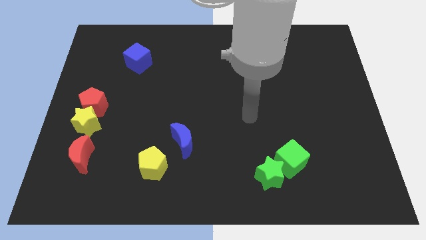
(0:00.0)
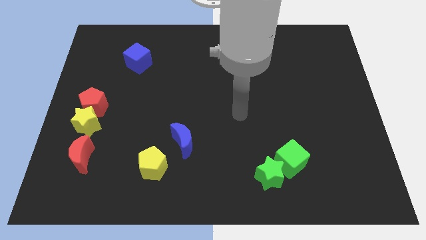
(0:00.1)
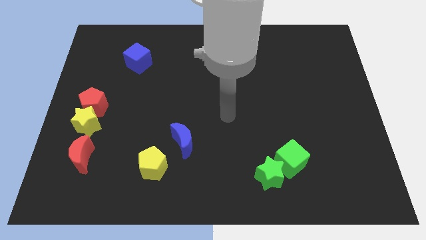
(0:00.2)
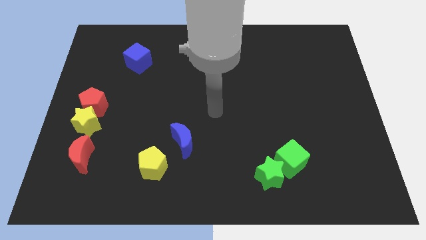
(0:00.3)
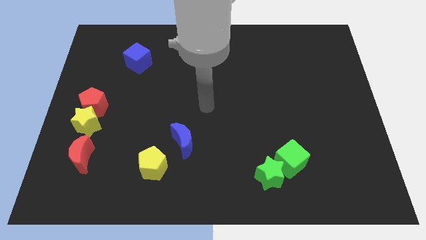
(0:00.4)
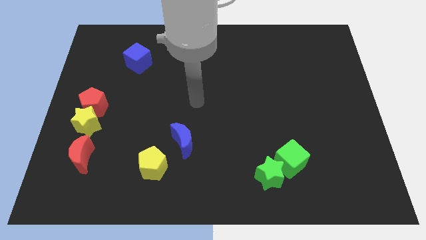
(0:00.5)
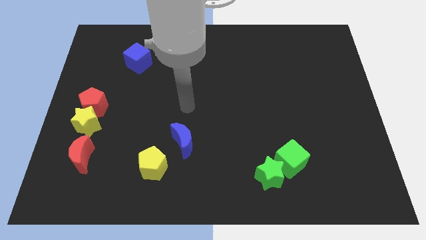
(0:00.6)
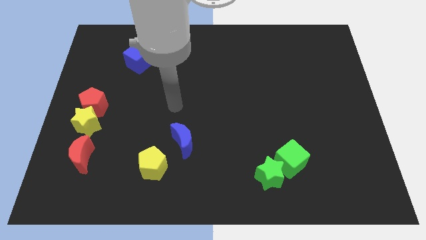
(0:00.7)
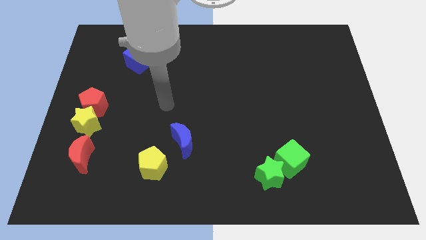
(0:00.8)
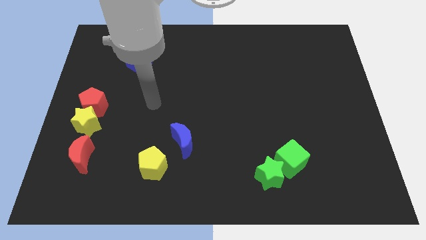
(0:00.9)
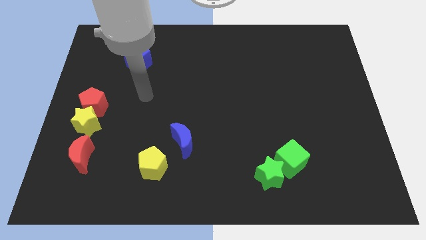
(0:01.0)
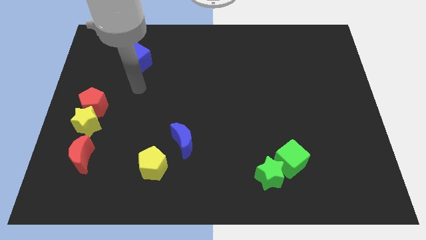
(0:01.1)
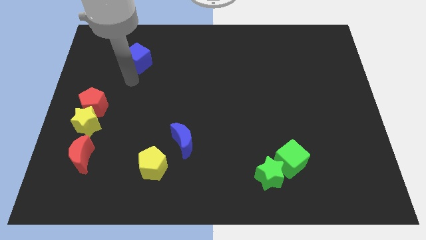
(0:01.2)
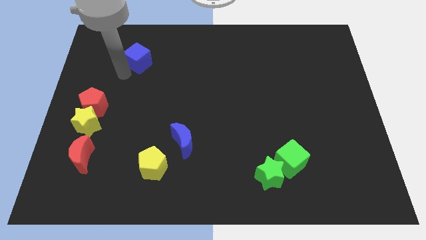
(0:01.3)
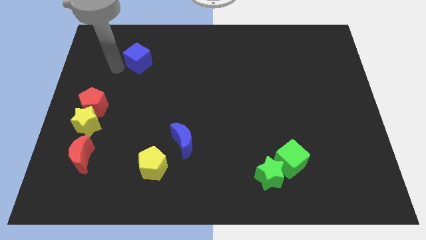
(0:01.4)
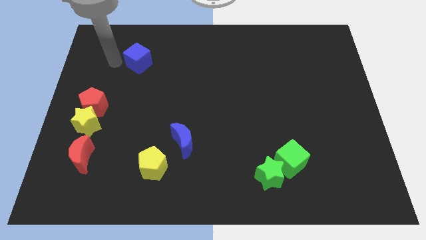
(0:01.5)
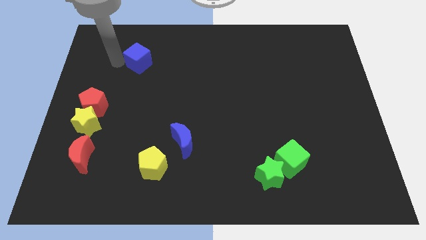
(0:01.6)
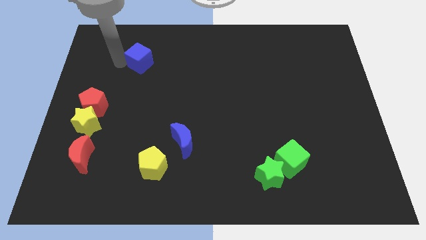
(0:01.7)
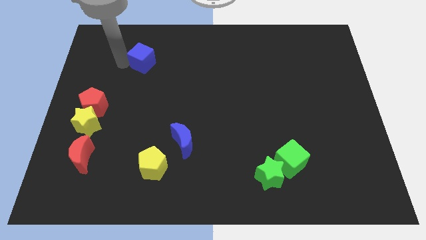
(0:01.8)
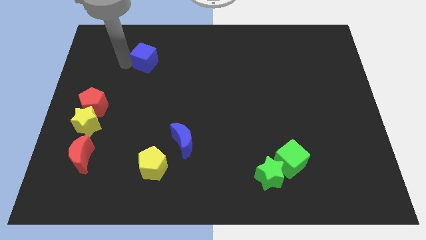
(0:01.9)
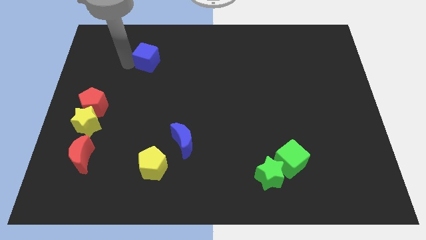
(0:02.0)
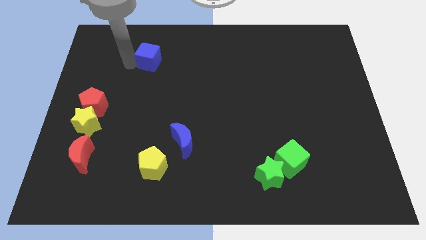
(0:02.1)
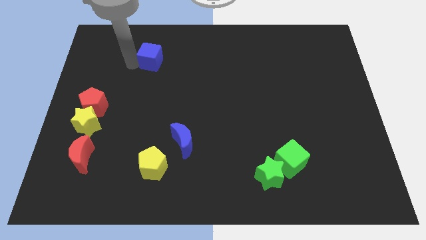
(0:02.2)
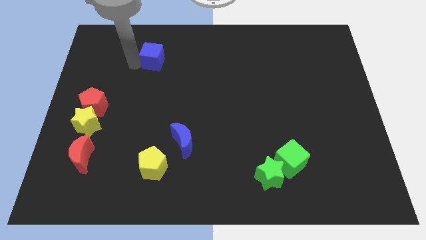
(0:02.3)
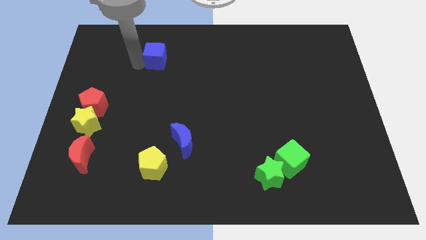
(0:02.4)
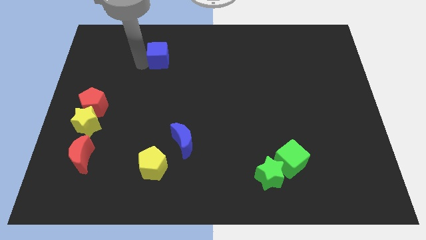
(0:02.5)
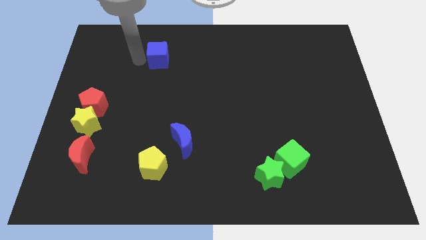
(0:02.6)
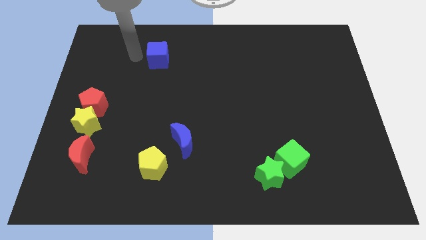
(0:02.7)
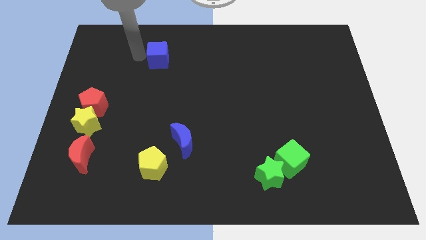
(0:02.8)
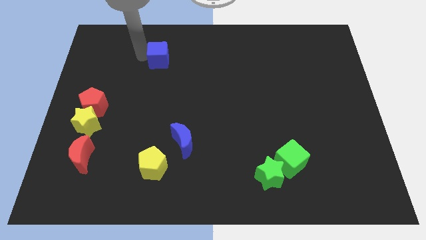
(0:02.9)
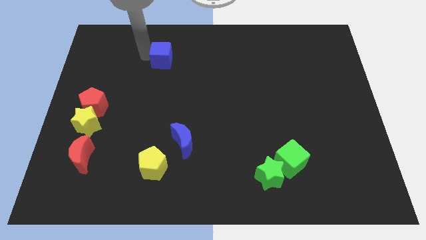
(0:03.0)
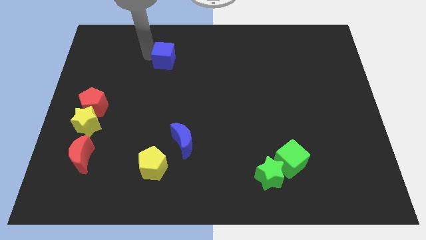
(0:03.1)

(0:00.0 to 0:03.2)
slide the blue cube to the right a little bit

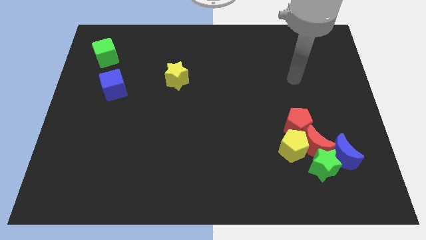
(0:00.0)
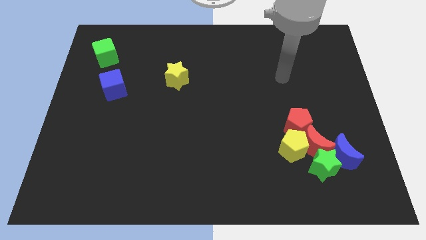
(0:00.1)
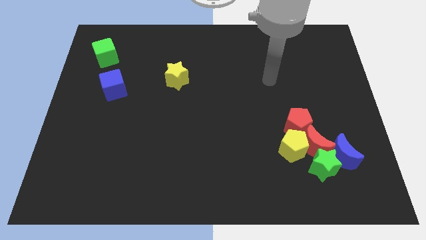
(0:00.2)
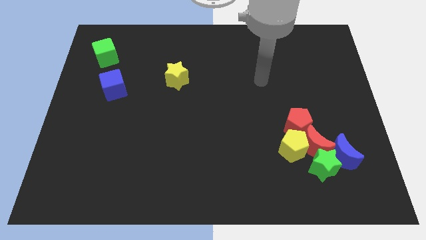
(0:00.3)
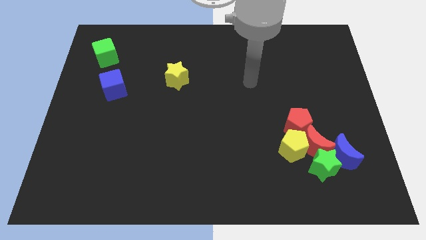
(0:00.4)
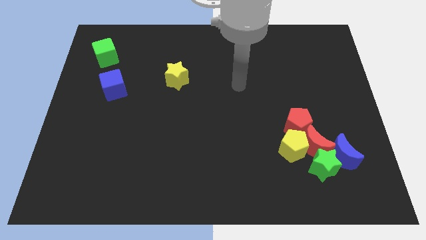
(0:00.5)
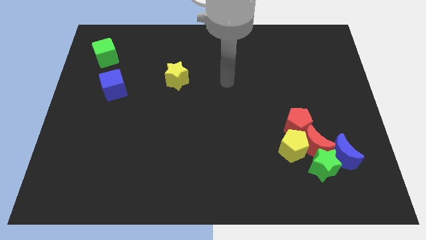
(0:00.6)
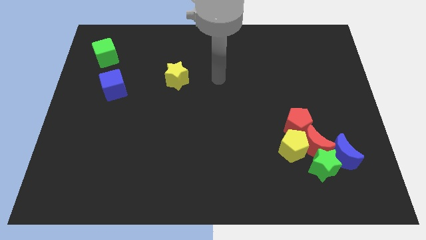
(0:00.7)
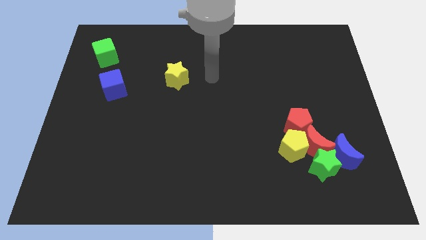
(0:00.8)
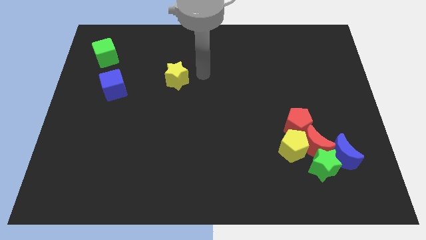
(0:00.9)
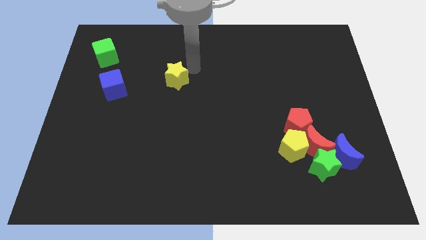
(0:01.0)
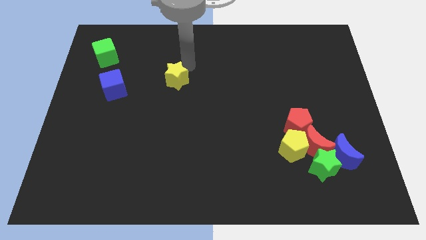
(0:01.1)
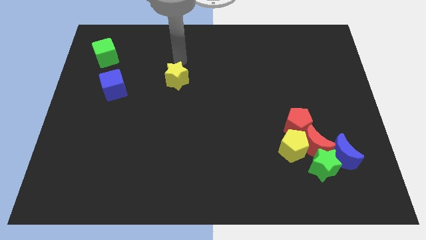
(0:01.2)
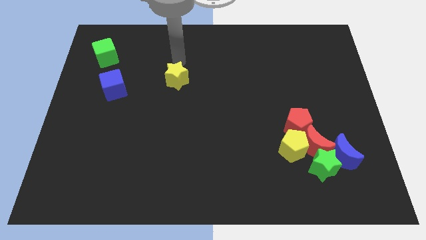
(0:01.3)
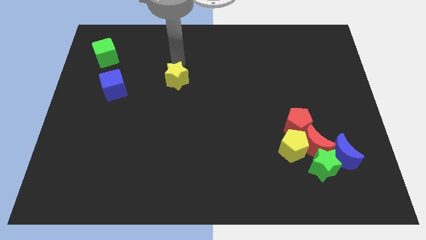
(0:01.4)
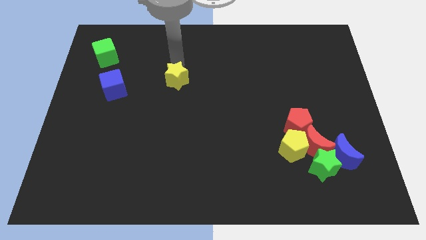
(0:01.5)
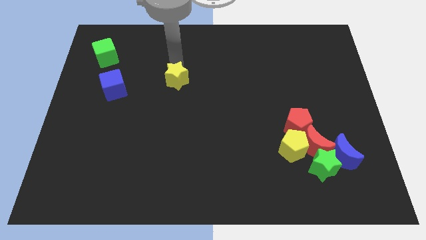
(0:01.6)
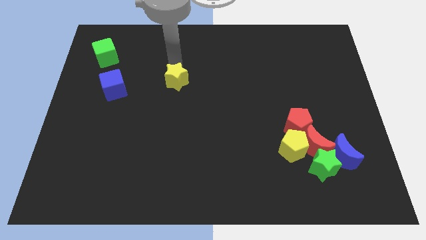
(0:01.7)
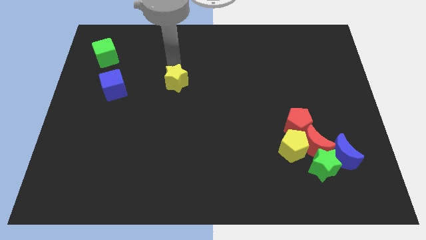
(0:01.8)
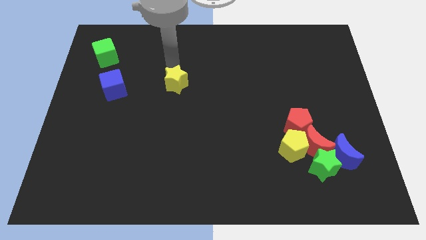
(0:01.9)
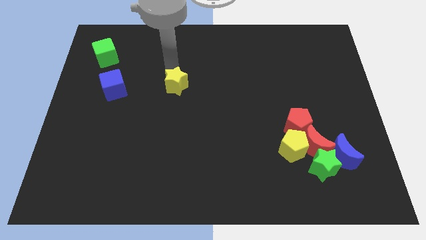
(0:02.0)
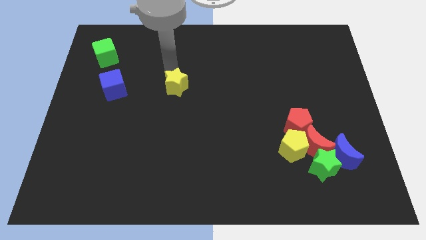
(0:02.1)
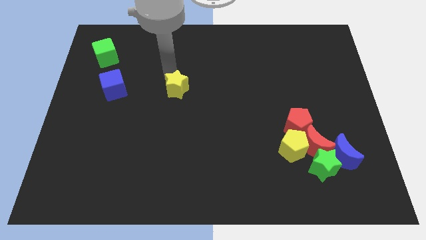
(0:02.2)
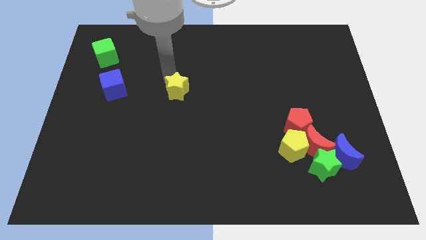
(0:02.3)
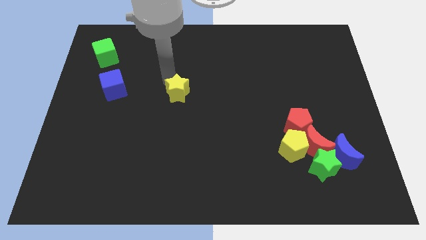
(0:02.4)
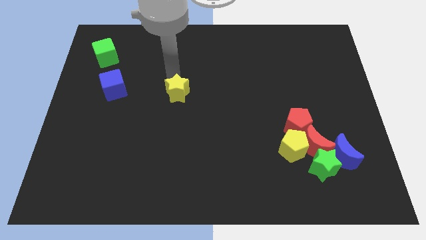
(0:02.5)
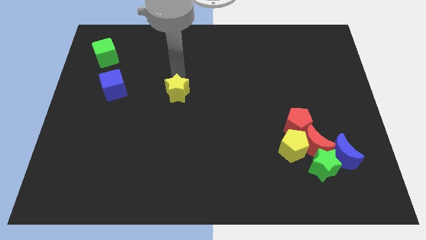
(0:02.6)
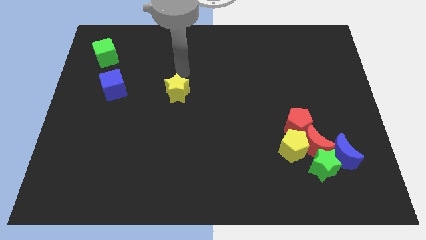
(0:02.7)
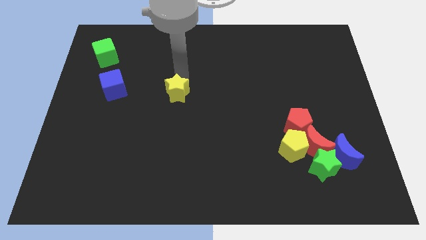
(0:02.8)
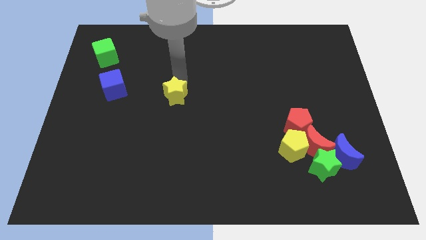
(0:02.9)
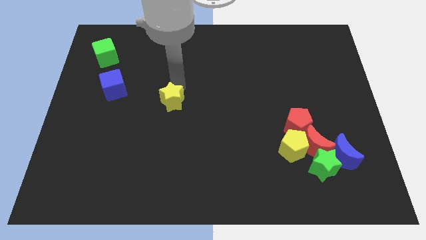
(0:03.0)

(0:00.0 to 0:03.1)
slightly push the yellow star down

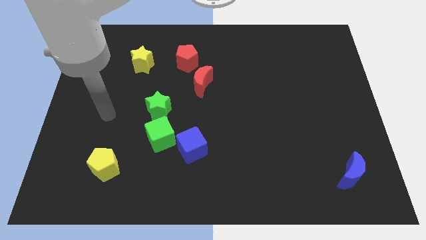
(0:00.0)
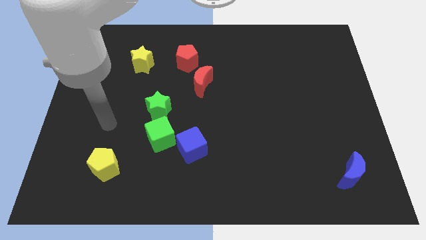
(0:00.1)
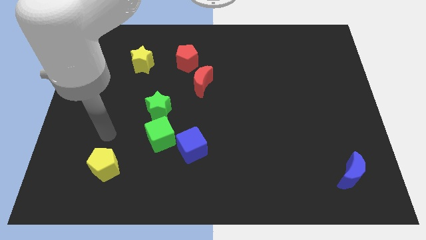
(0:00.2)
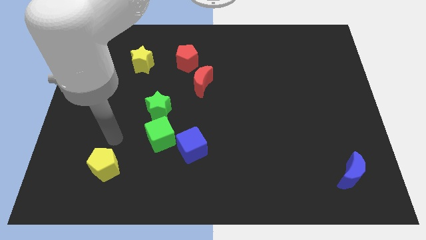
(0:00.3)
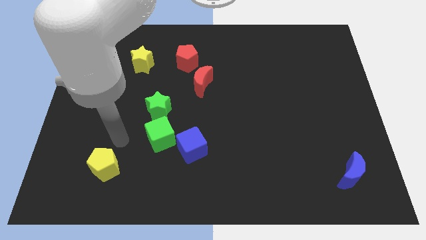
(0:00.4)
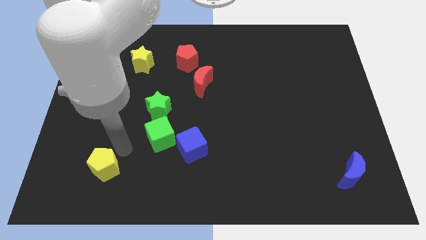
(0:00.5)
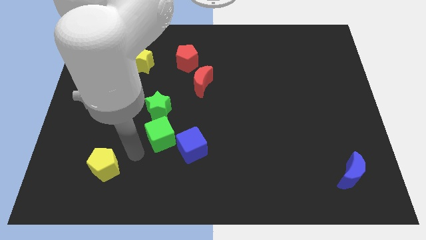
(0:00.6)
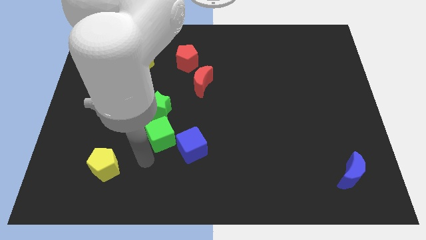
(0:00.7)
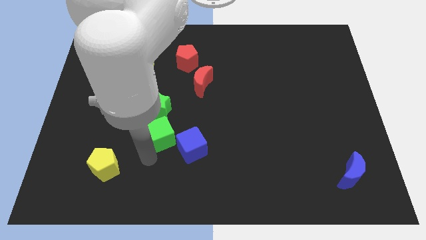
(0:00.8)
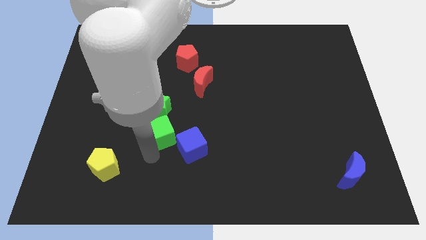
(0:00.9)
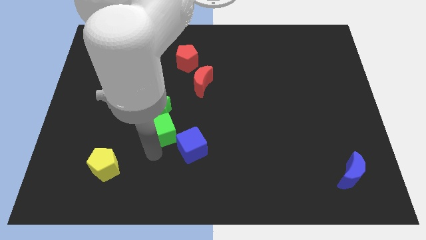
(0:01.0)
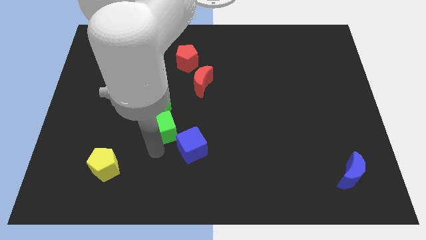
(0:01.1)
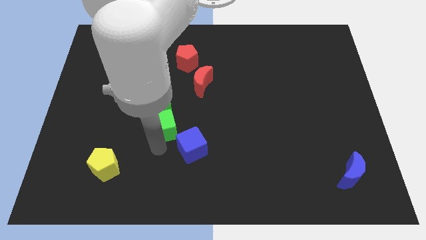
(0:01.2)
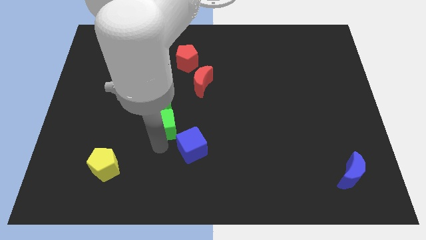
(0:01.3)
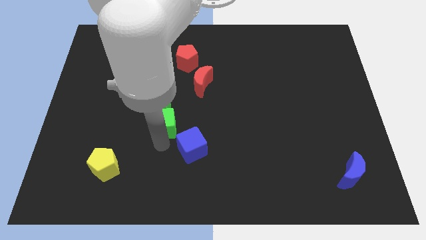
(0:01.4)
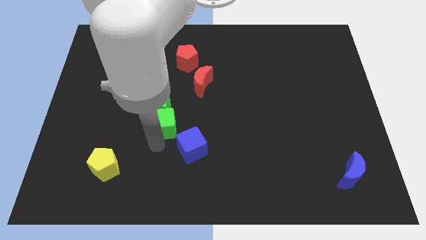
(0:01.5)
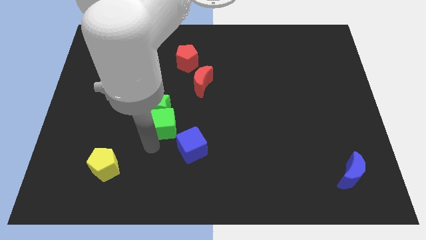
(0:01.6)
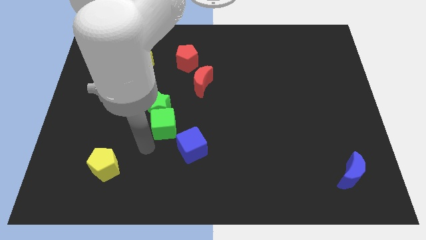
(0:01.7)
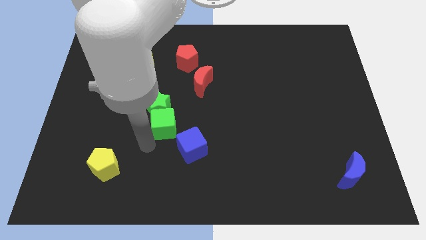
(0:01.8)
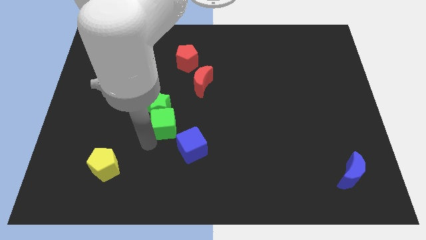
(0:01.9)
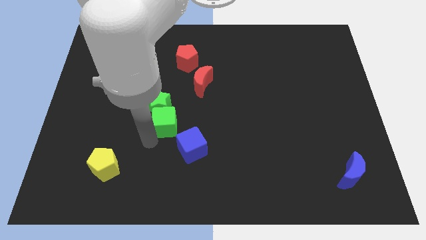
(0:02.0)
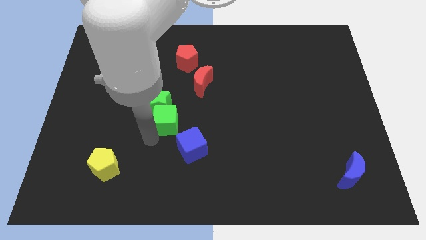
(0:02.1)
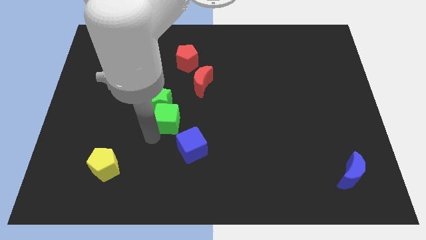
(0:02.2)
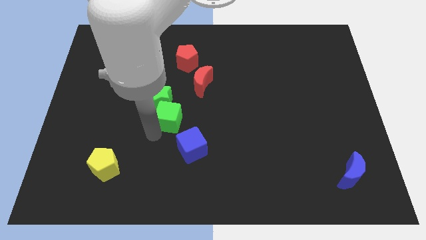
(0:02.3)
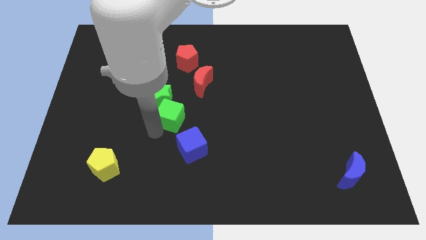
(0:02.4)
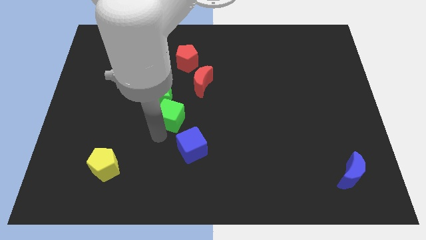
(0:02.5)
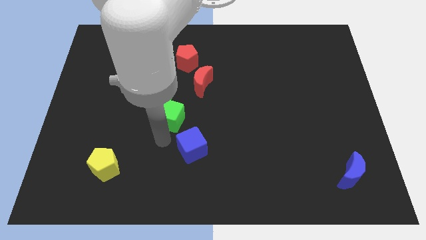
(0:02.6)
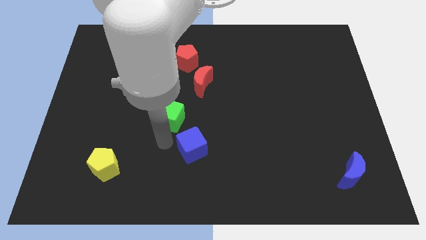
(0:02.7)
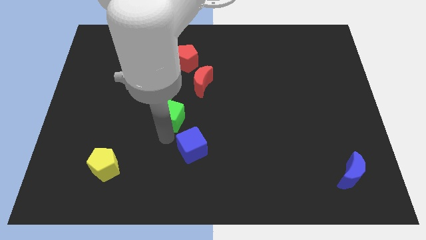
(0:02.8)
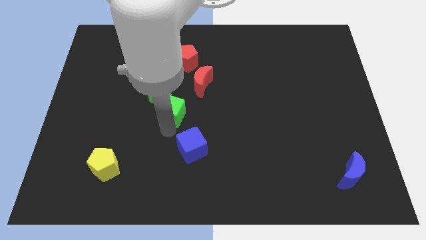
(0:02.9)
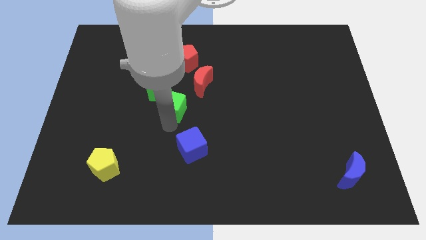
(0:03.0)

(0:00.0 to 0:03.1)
push the green cube up slightly
